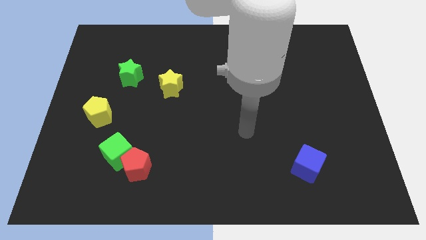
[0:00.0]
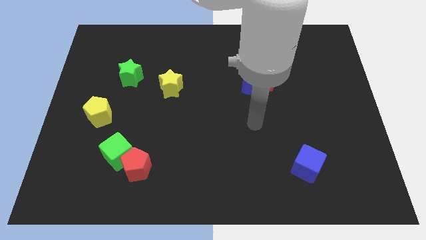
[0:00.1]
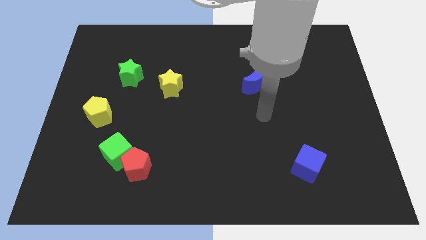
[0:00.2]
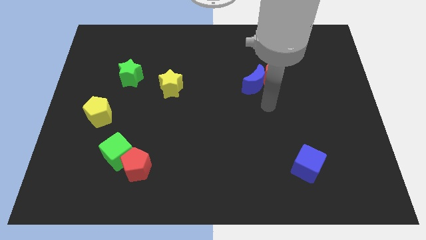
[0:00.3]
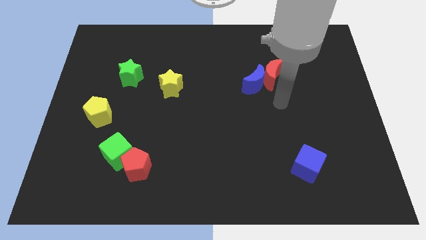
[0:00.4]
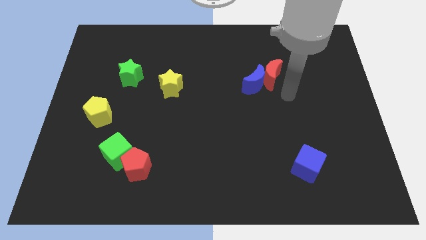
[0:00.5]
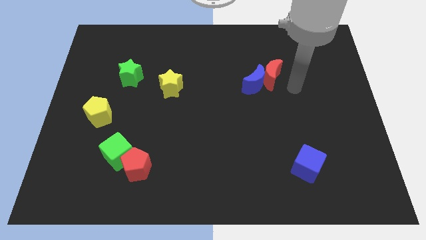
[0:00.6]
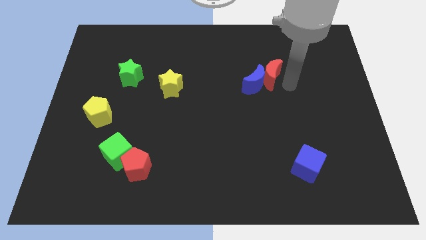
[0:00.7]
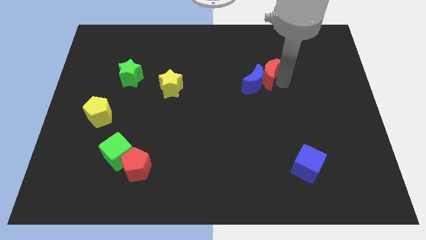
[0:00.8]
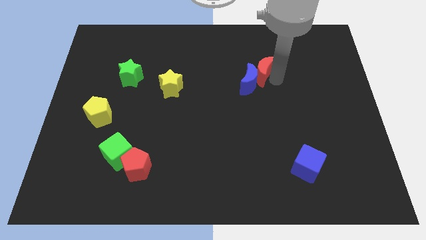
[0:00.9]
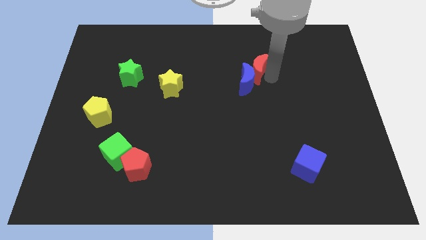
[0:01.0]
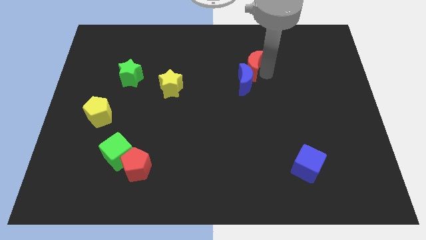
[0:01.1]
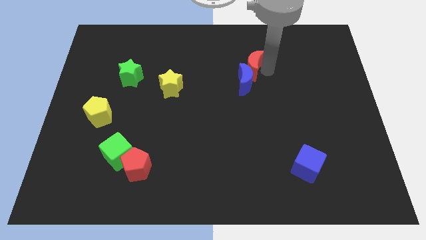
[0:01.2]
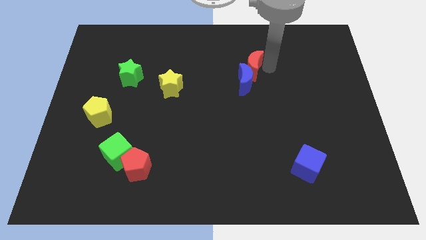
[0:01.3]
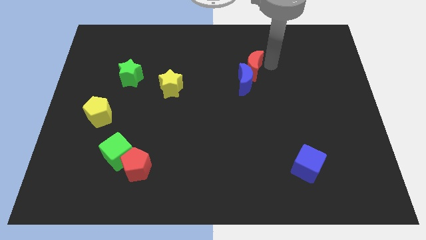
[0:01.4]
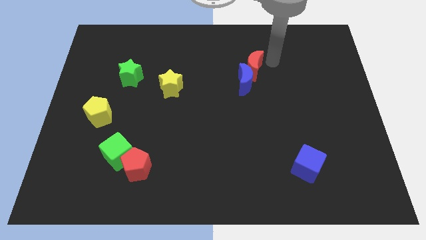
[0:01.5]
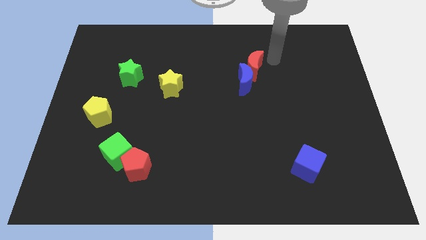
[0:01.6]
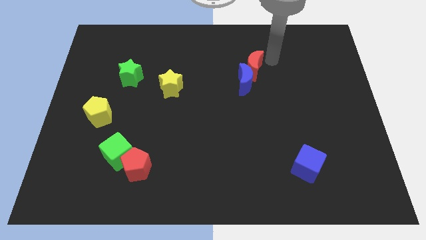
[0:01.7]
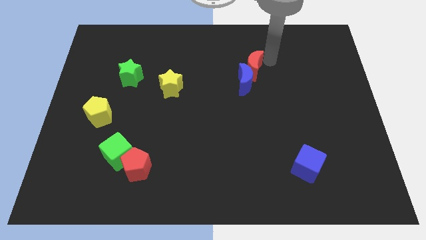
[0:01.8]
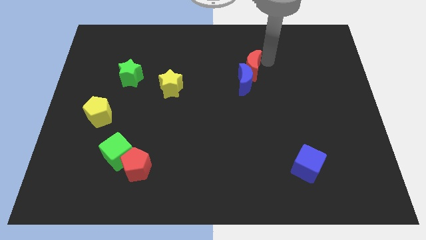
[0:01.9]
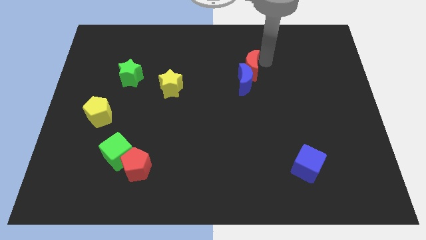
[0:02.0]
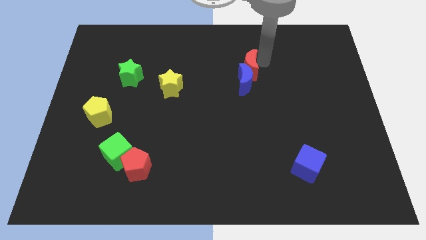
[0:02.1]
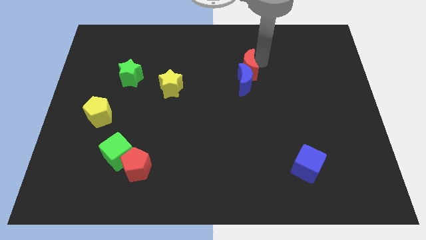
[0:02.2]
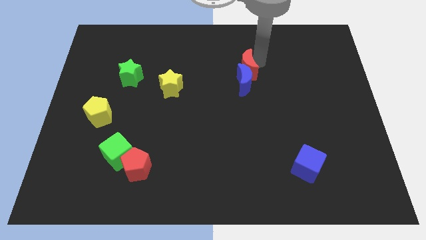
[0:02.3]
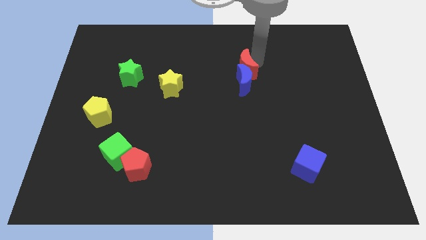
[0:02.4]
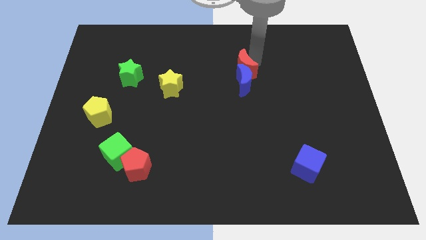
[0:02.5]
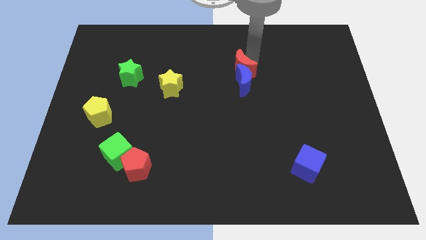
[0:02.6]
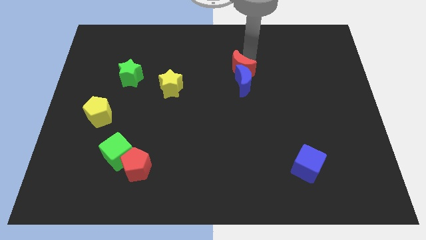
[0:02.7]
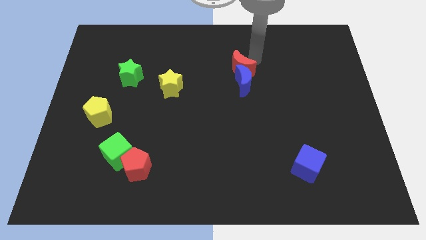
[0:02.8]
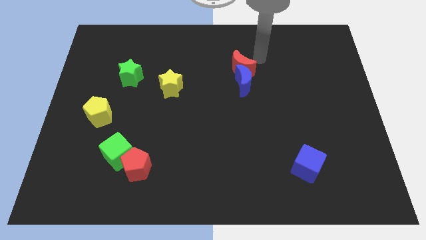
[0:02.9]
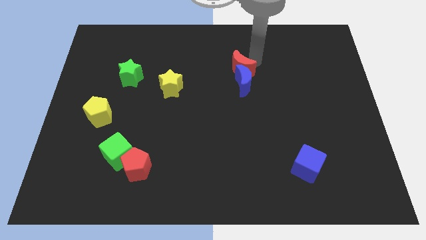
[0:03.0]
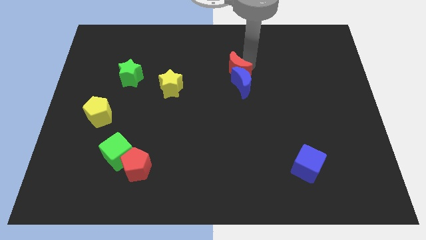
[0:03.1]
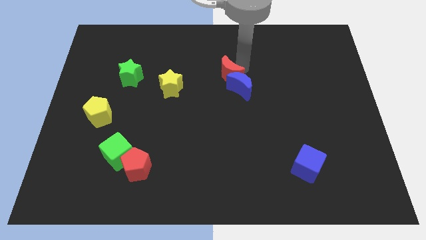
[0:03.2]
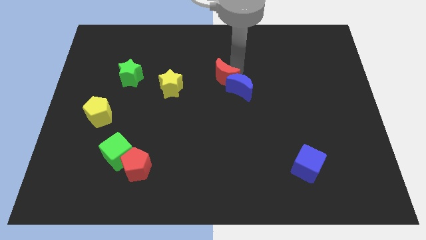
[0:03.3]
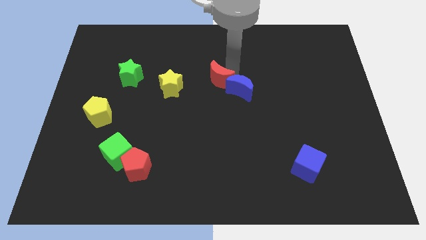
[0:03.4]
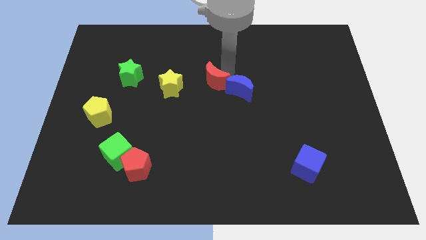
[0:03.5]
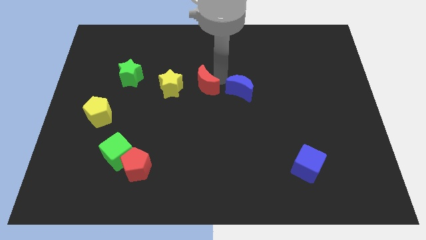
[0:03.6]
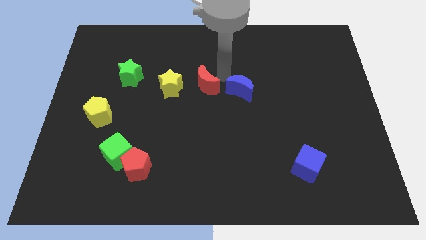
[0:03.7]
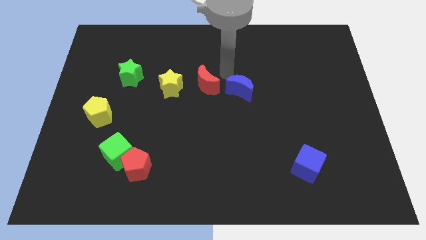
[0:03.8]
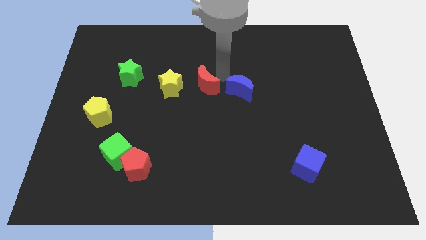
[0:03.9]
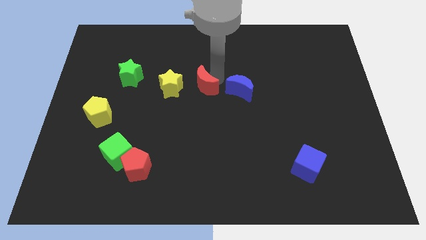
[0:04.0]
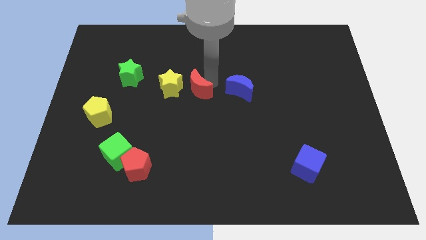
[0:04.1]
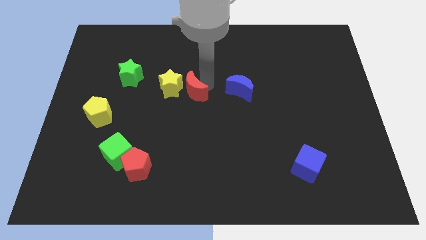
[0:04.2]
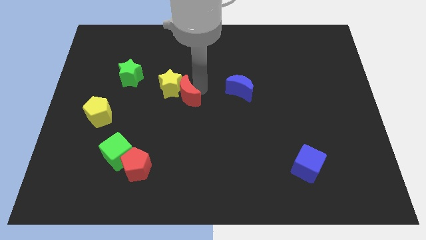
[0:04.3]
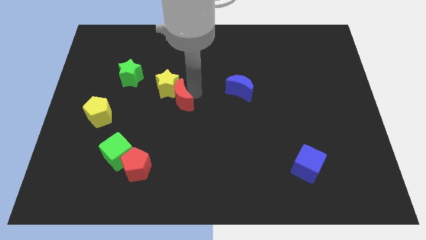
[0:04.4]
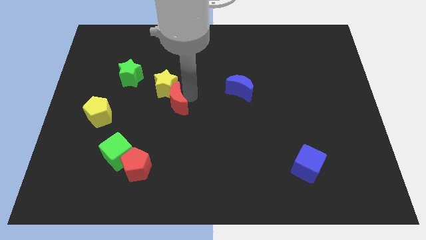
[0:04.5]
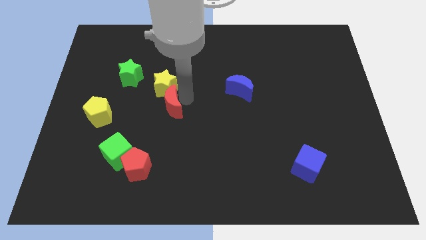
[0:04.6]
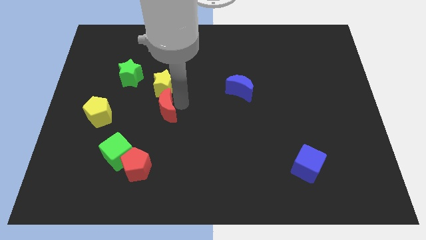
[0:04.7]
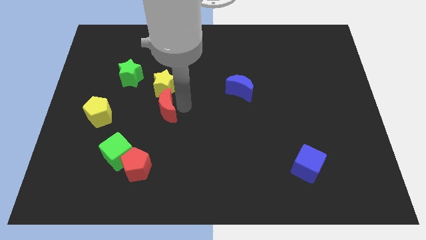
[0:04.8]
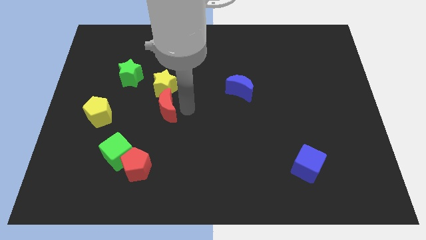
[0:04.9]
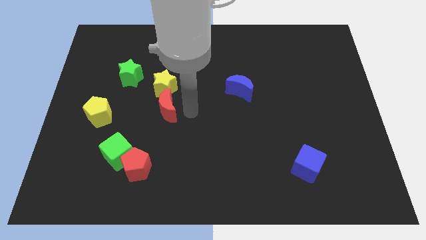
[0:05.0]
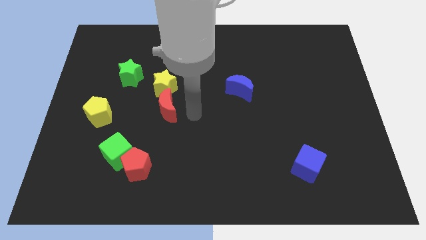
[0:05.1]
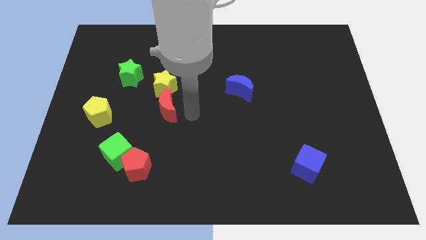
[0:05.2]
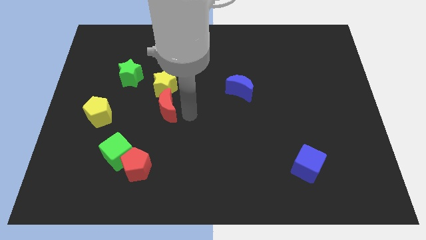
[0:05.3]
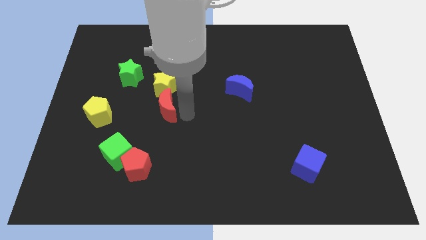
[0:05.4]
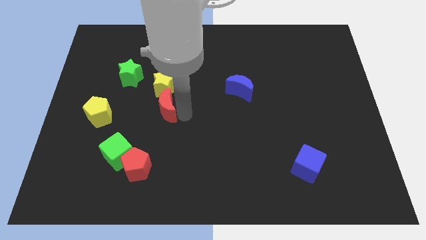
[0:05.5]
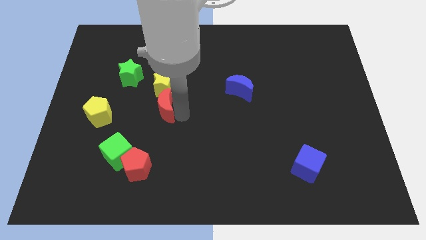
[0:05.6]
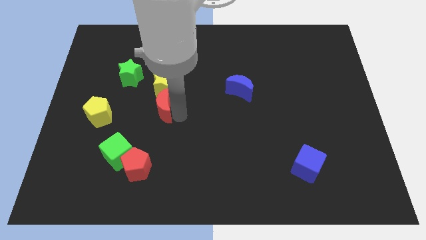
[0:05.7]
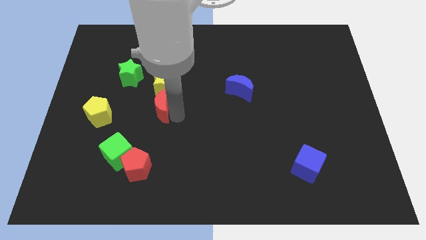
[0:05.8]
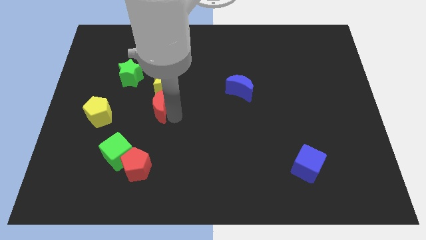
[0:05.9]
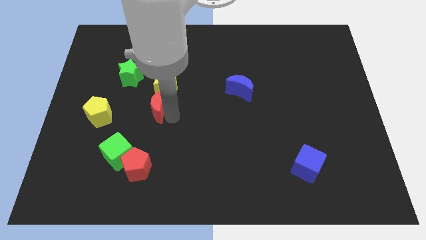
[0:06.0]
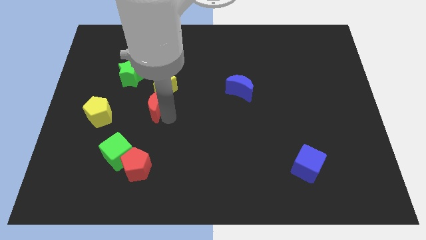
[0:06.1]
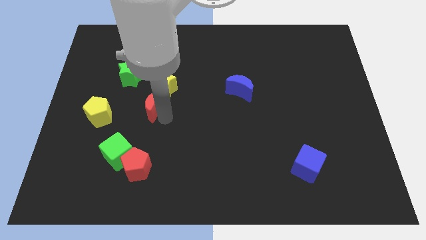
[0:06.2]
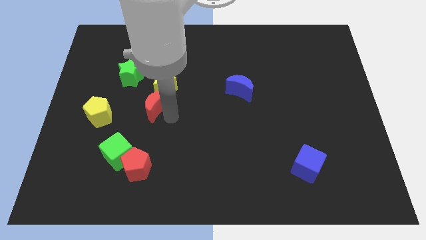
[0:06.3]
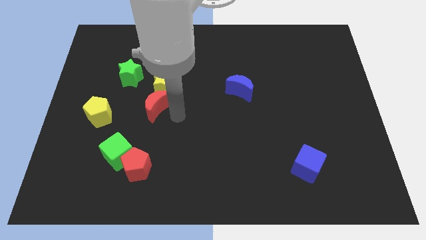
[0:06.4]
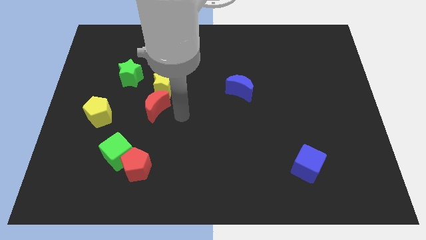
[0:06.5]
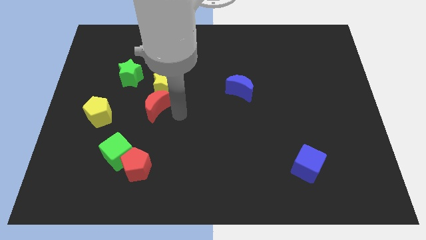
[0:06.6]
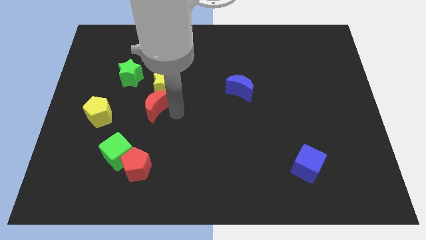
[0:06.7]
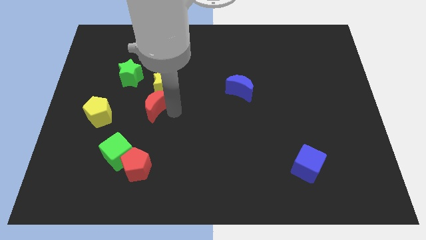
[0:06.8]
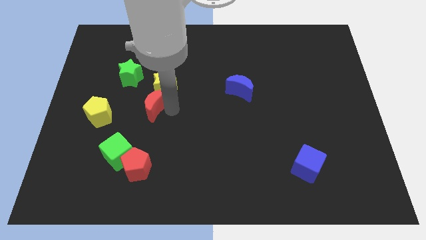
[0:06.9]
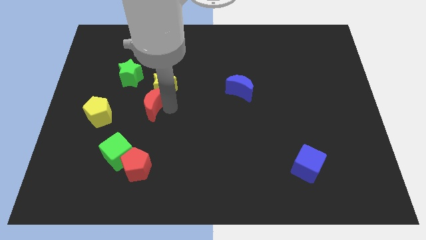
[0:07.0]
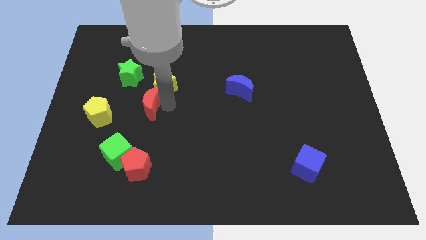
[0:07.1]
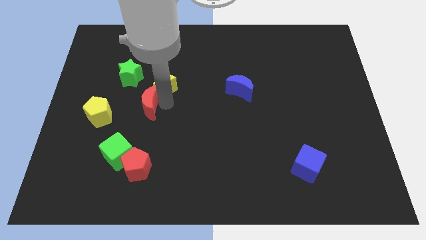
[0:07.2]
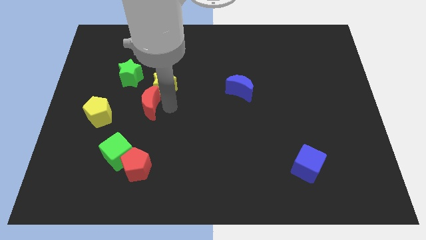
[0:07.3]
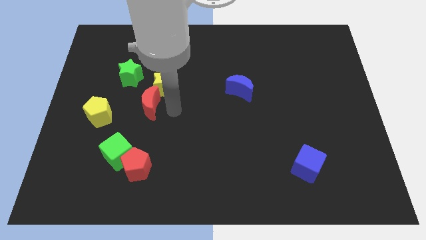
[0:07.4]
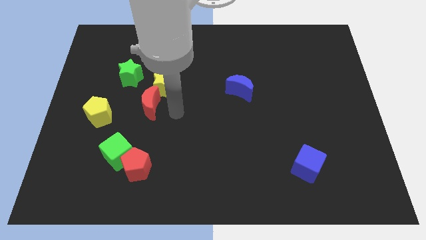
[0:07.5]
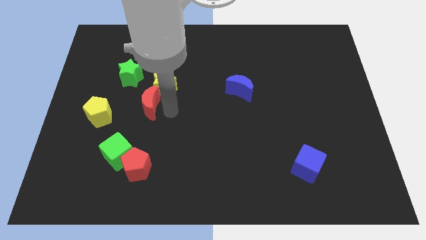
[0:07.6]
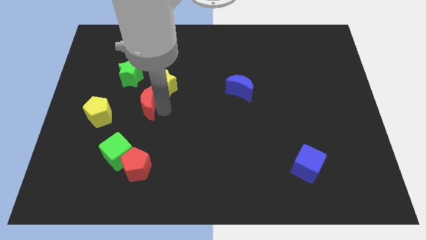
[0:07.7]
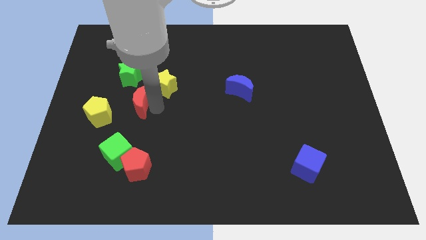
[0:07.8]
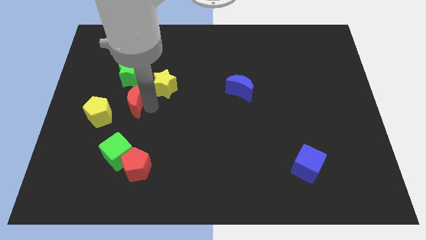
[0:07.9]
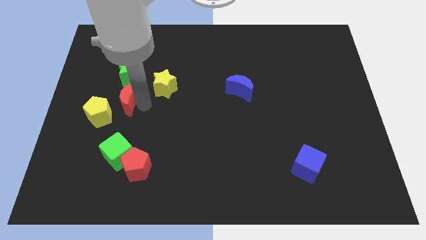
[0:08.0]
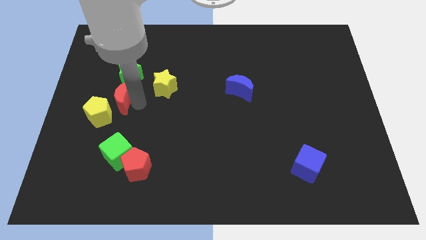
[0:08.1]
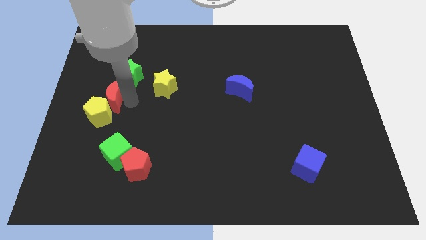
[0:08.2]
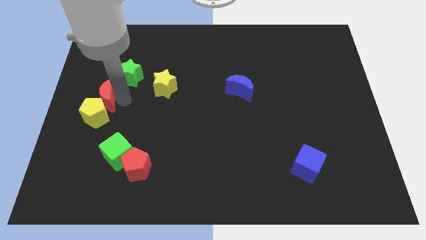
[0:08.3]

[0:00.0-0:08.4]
move the red moon to the left side
